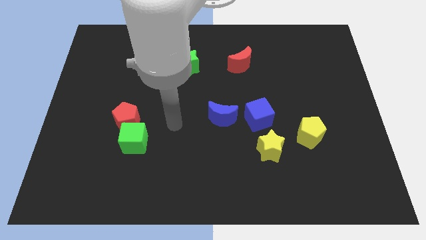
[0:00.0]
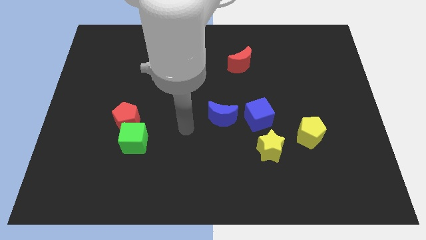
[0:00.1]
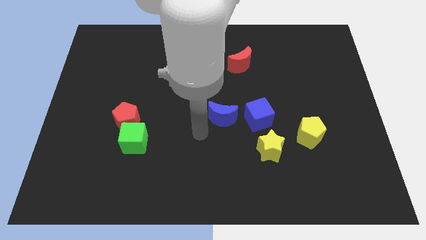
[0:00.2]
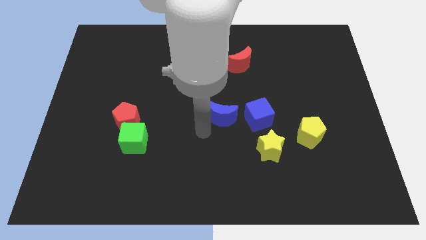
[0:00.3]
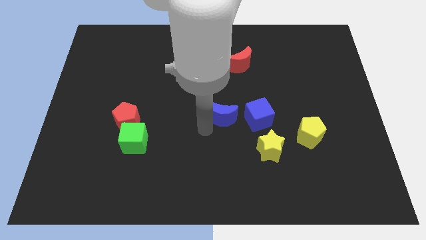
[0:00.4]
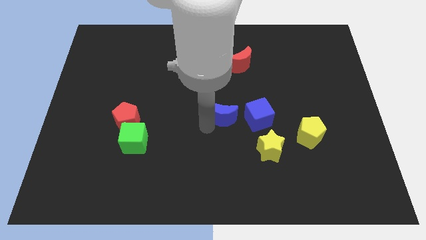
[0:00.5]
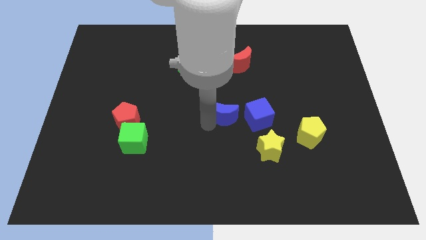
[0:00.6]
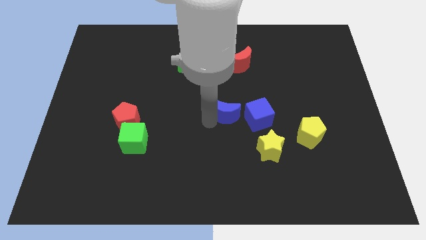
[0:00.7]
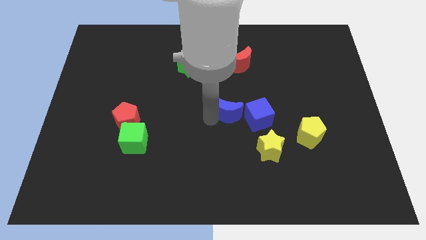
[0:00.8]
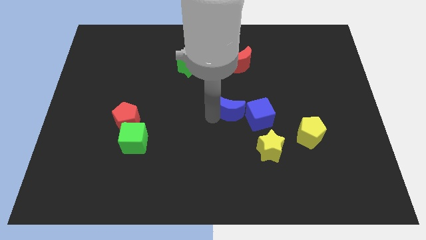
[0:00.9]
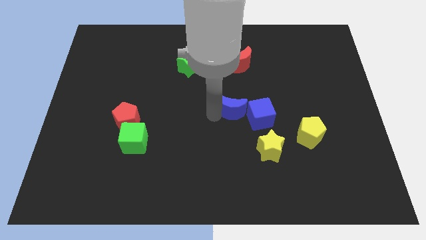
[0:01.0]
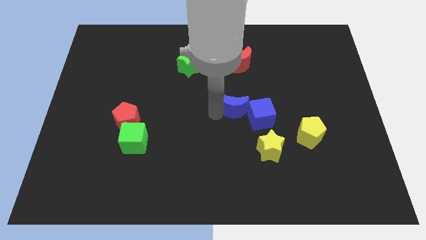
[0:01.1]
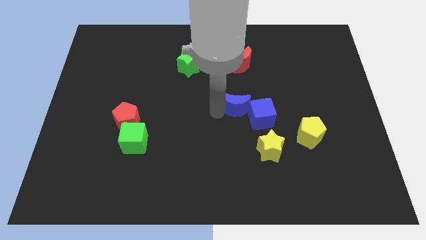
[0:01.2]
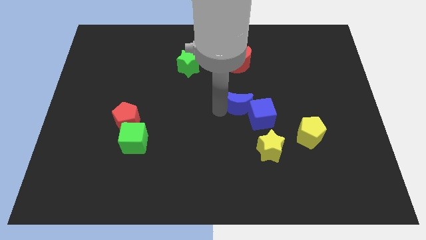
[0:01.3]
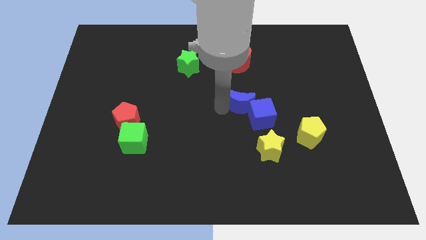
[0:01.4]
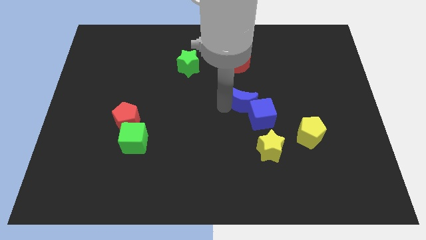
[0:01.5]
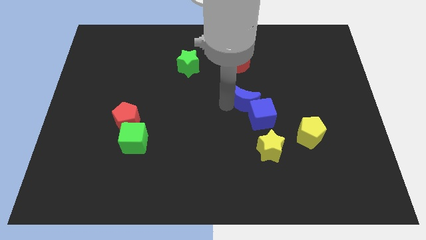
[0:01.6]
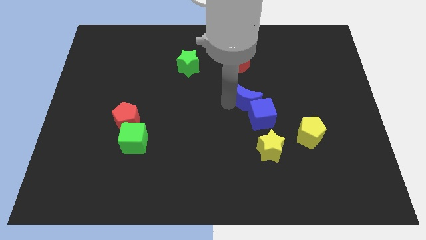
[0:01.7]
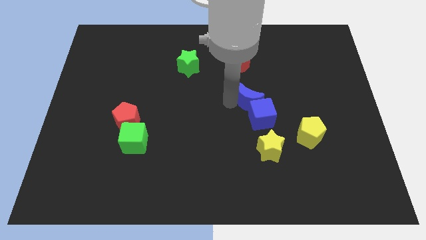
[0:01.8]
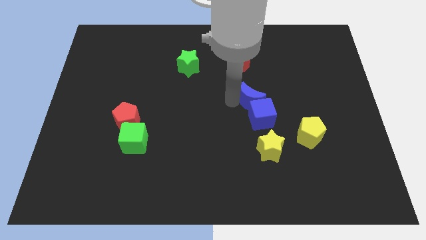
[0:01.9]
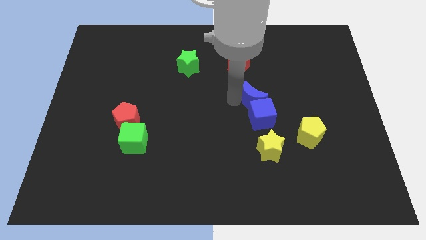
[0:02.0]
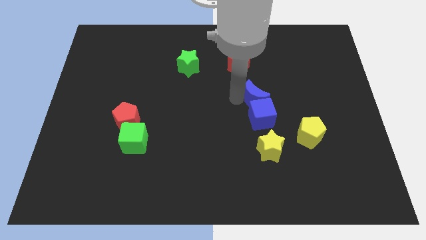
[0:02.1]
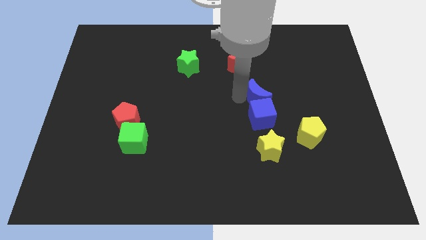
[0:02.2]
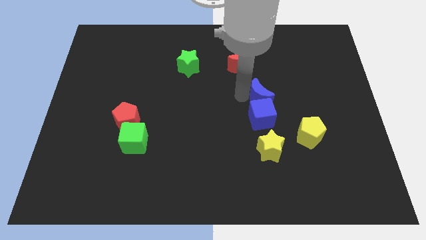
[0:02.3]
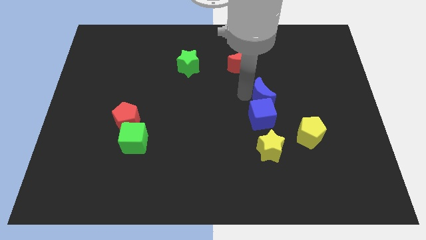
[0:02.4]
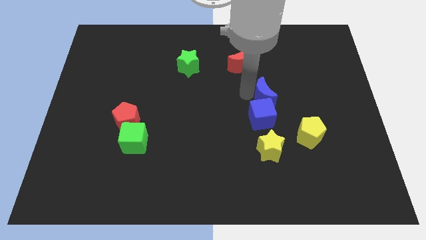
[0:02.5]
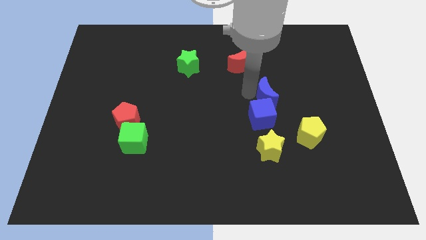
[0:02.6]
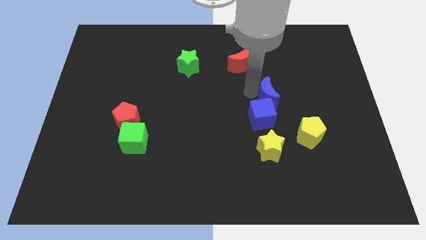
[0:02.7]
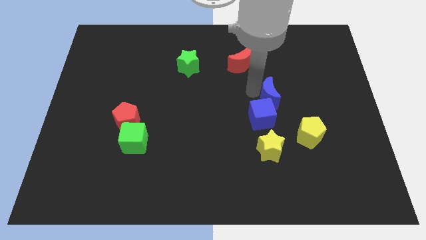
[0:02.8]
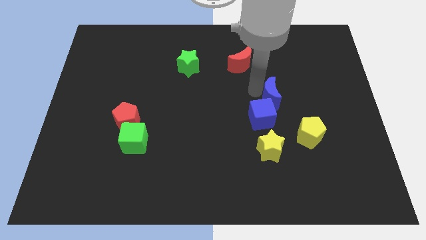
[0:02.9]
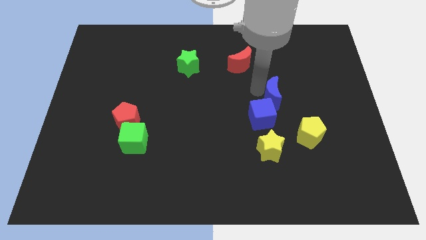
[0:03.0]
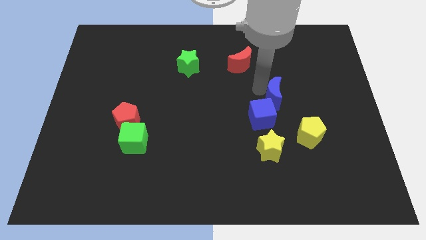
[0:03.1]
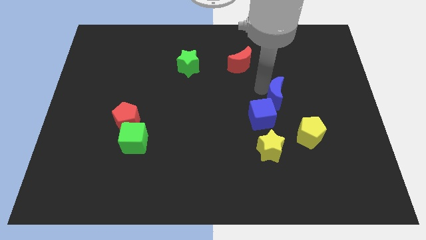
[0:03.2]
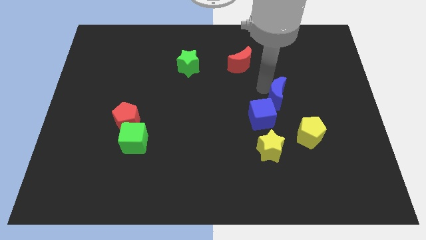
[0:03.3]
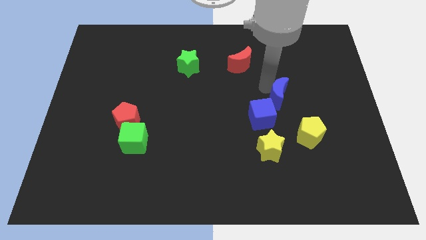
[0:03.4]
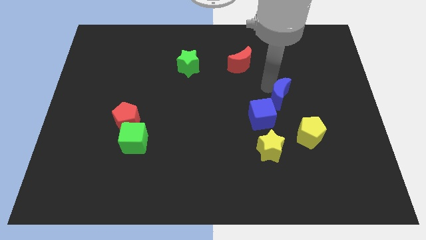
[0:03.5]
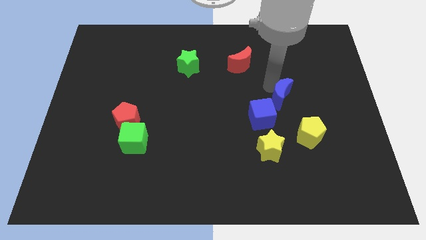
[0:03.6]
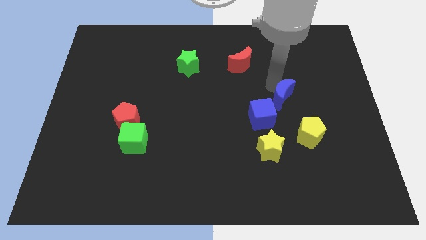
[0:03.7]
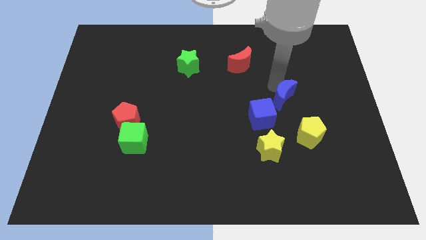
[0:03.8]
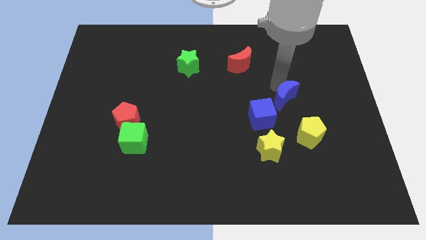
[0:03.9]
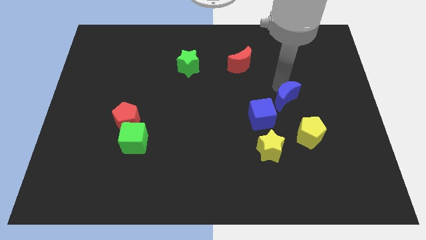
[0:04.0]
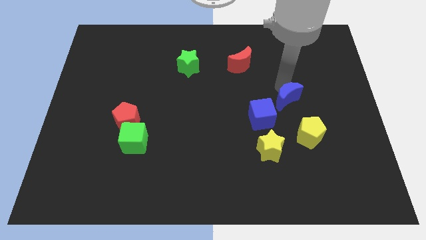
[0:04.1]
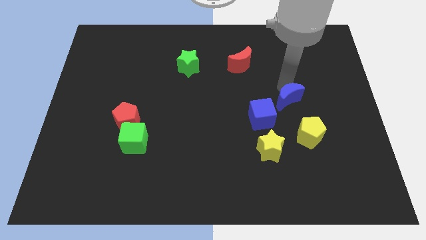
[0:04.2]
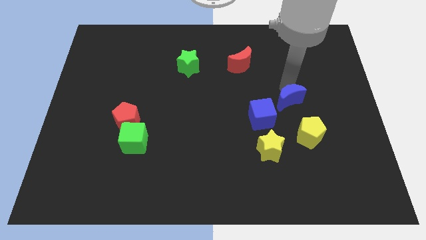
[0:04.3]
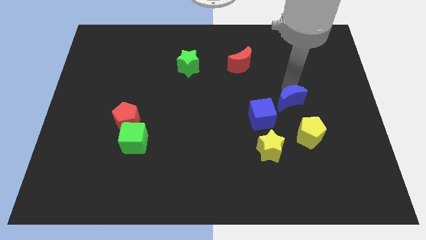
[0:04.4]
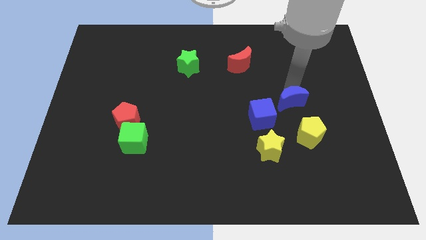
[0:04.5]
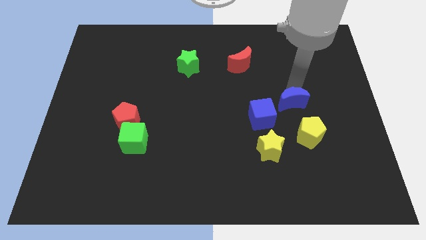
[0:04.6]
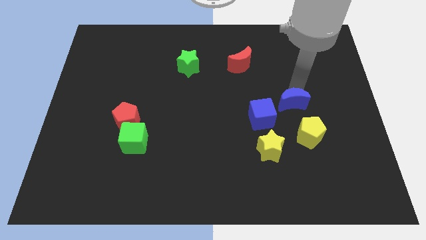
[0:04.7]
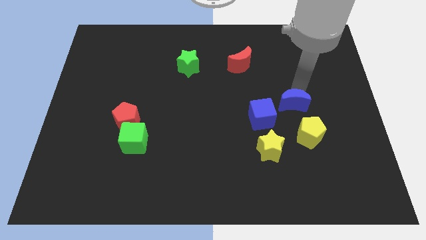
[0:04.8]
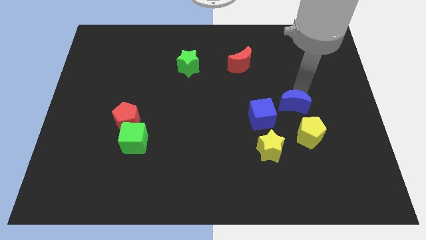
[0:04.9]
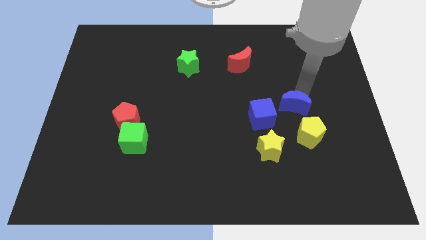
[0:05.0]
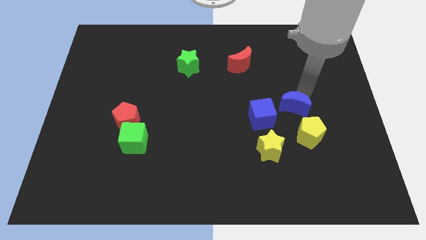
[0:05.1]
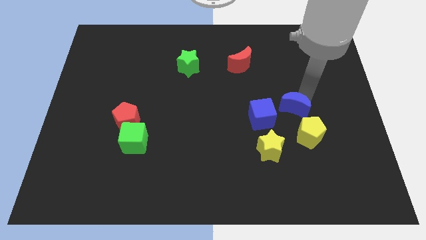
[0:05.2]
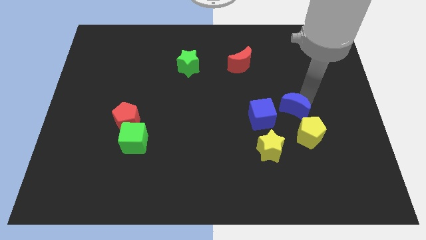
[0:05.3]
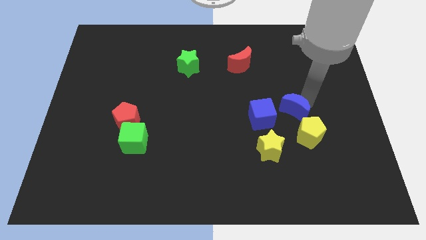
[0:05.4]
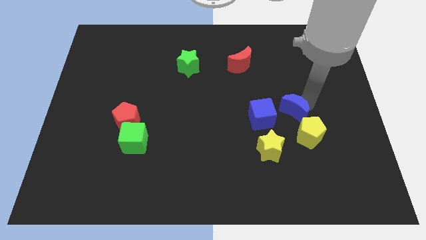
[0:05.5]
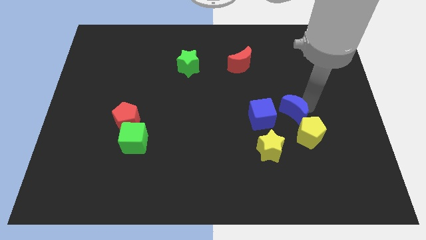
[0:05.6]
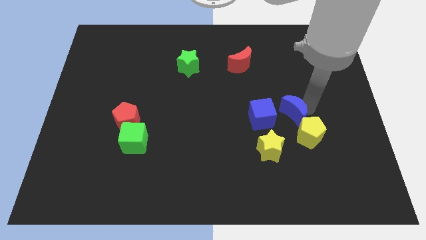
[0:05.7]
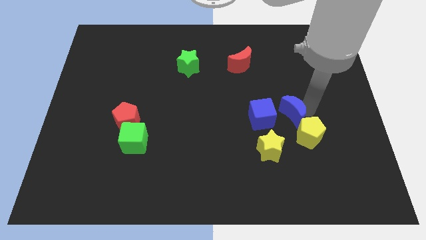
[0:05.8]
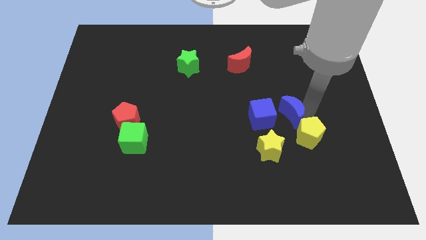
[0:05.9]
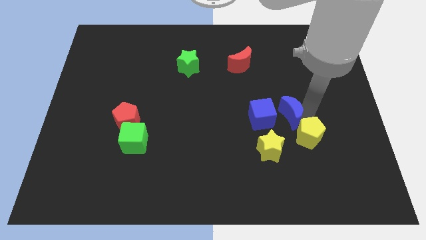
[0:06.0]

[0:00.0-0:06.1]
slide the blue moon close to the yellow pentagon

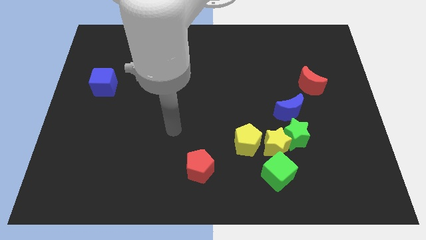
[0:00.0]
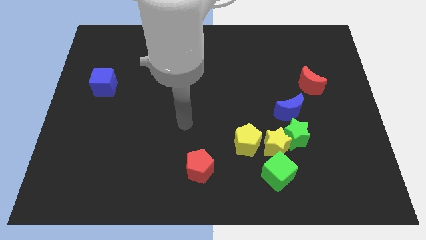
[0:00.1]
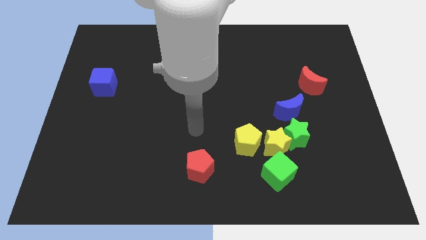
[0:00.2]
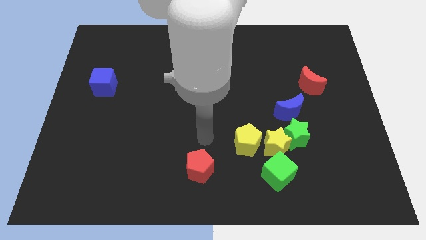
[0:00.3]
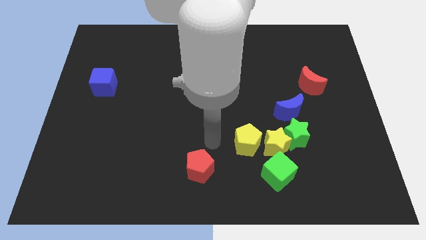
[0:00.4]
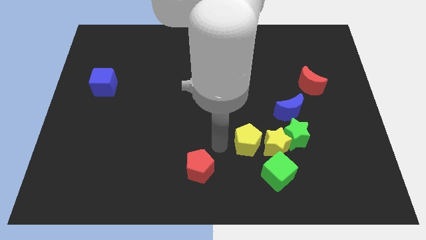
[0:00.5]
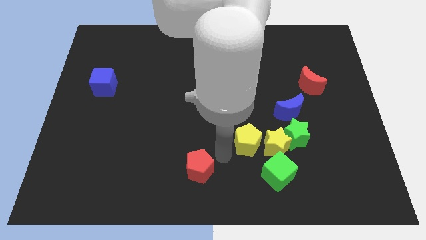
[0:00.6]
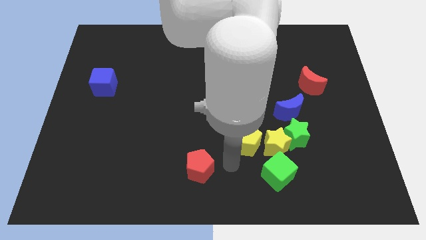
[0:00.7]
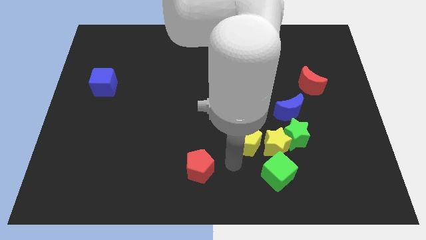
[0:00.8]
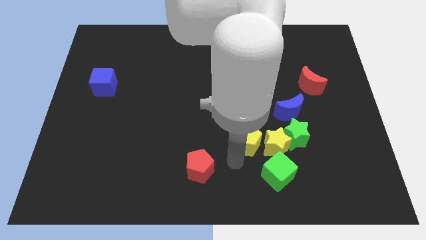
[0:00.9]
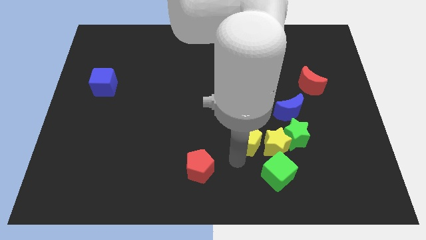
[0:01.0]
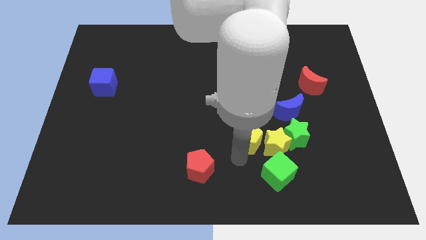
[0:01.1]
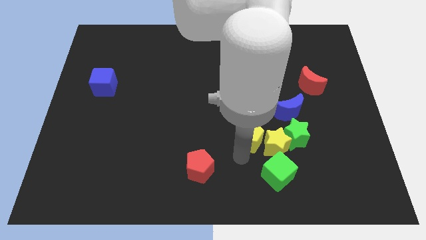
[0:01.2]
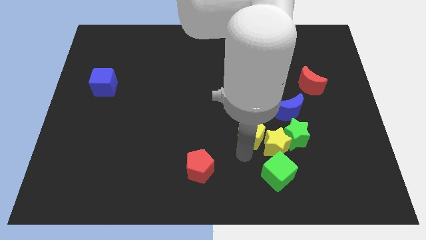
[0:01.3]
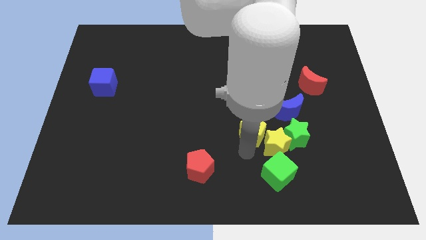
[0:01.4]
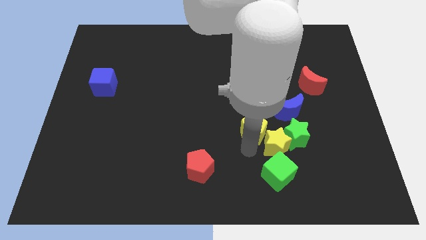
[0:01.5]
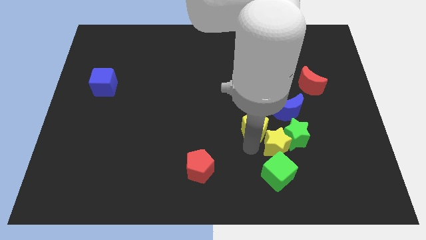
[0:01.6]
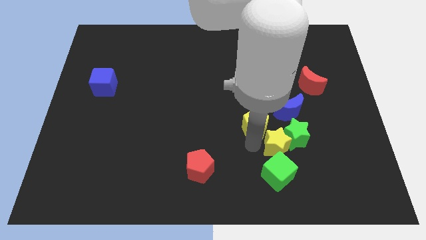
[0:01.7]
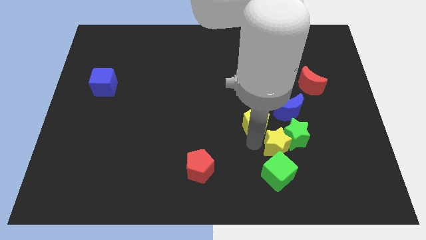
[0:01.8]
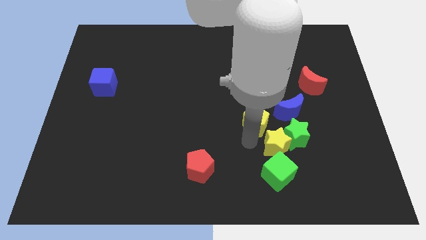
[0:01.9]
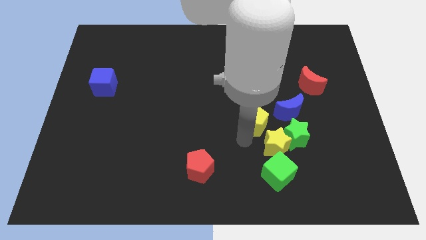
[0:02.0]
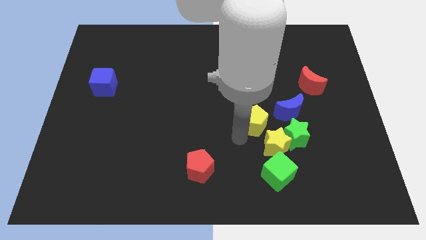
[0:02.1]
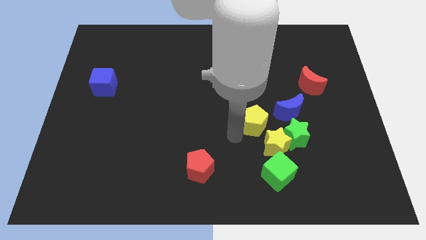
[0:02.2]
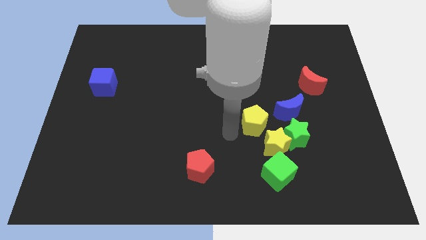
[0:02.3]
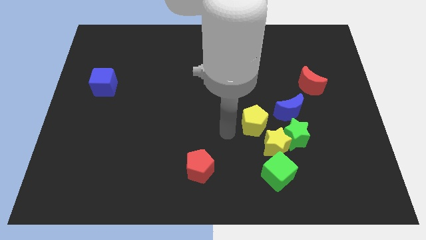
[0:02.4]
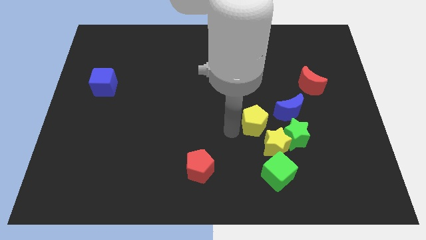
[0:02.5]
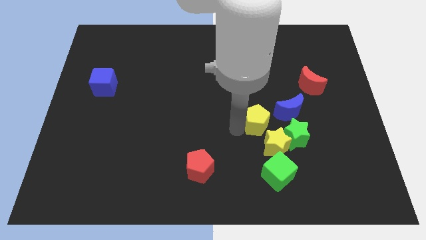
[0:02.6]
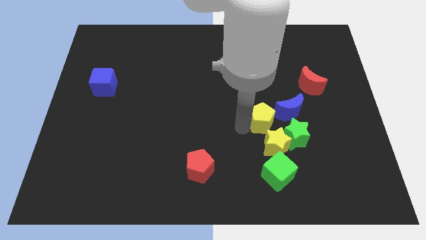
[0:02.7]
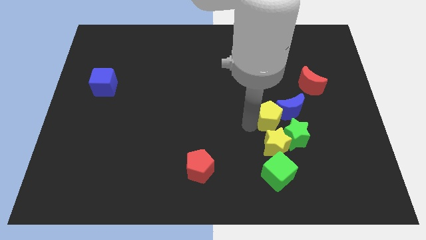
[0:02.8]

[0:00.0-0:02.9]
move the yellow pentagon next to the blue moon
